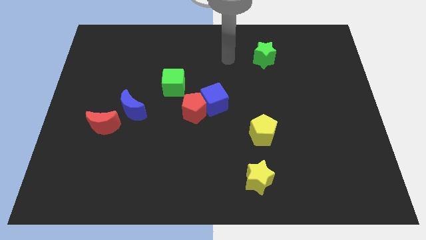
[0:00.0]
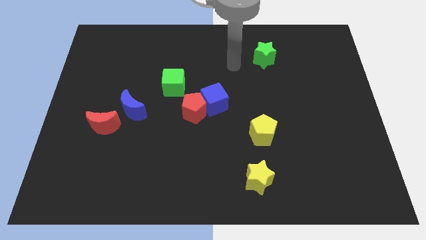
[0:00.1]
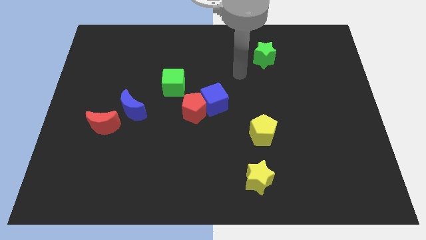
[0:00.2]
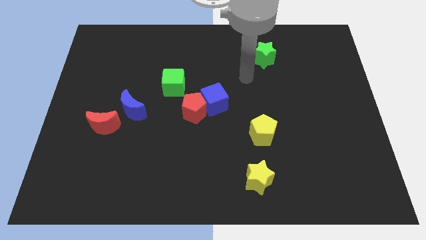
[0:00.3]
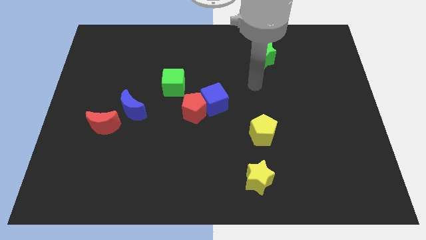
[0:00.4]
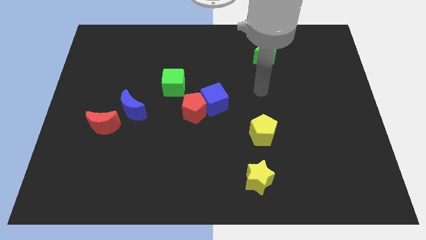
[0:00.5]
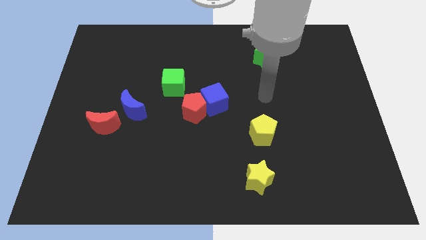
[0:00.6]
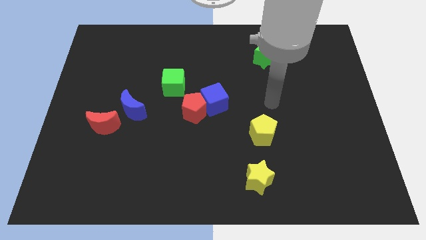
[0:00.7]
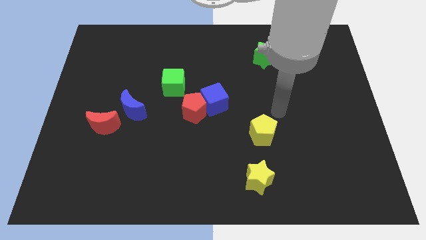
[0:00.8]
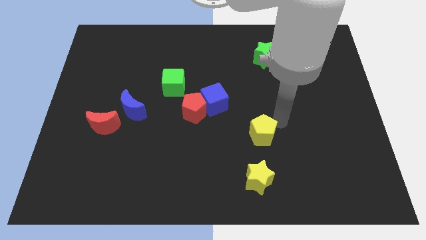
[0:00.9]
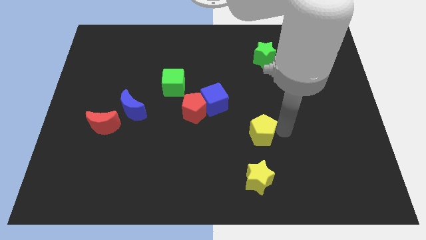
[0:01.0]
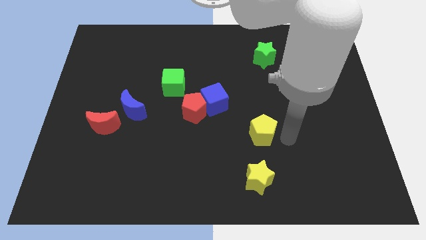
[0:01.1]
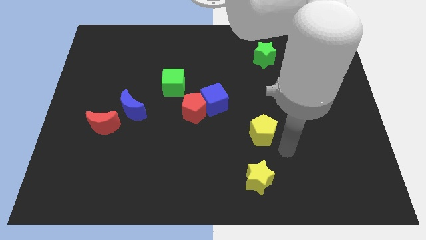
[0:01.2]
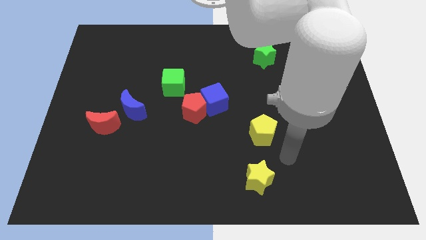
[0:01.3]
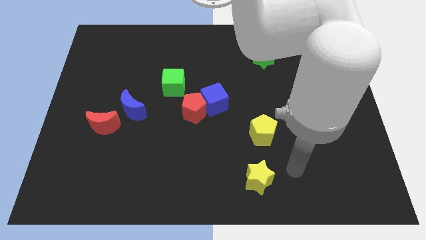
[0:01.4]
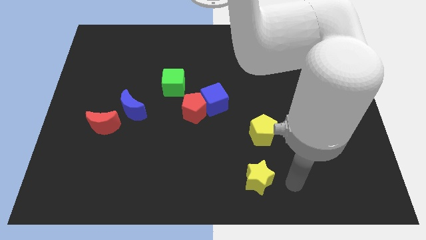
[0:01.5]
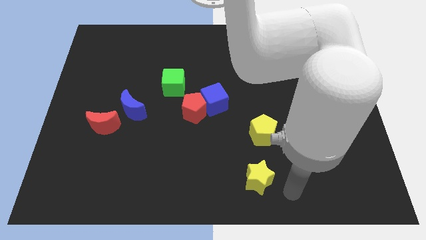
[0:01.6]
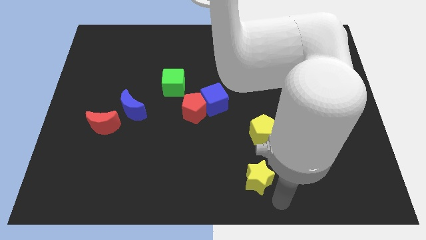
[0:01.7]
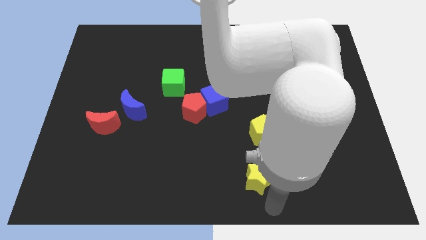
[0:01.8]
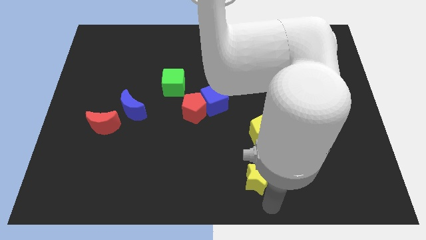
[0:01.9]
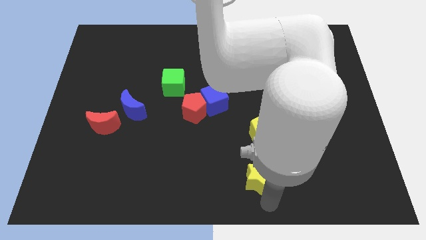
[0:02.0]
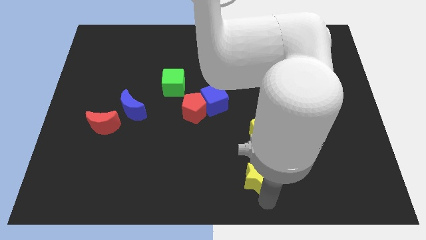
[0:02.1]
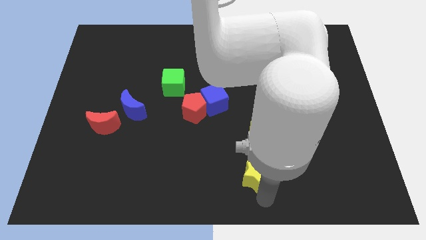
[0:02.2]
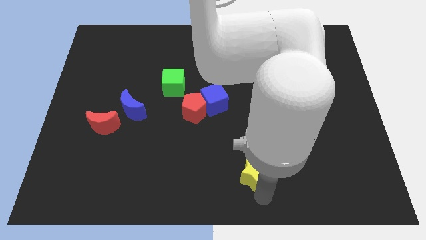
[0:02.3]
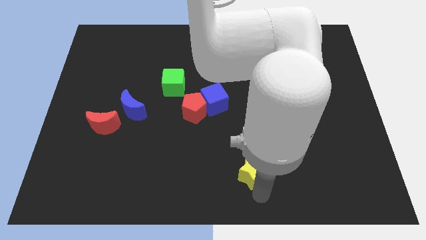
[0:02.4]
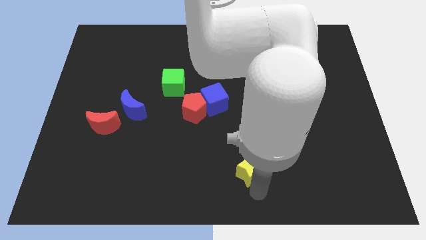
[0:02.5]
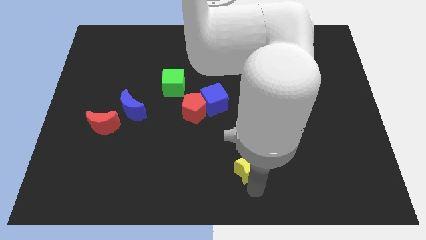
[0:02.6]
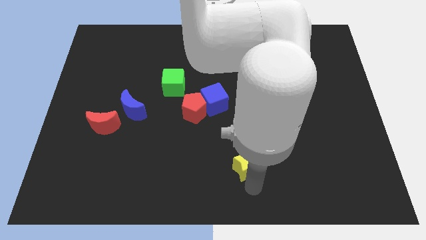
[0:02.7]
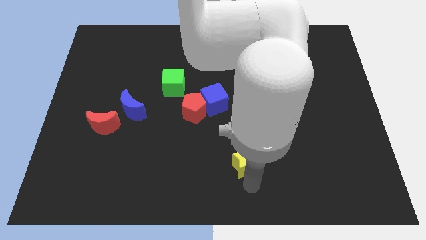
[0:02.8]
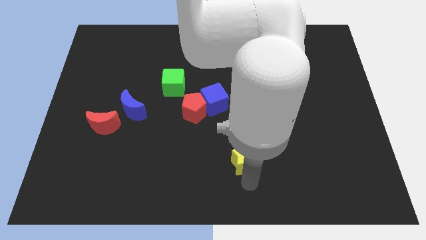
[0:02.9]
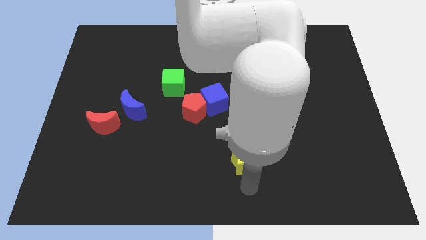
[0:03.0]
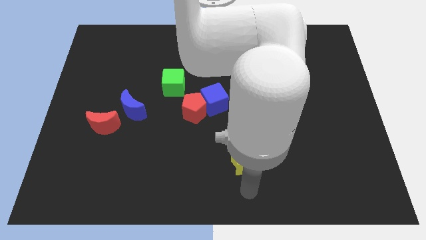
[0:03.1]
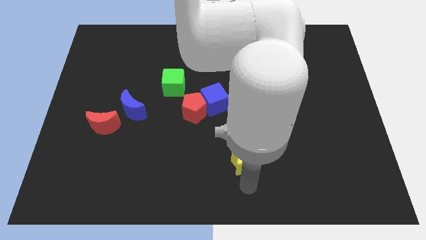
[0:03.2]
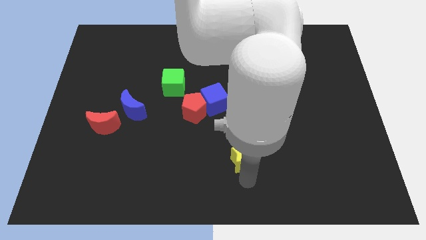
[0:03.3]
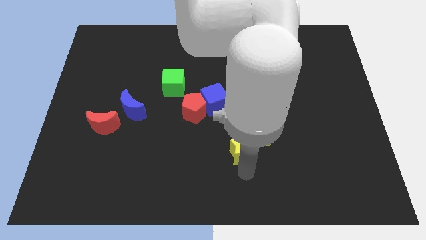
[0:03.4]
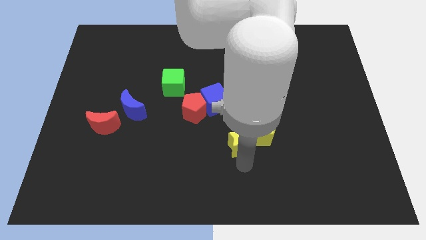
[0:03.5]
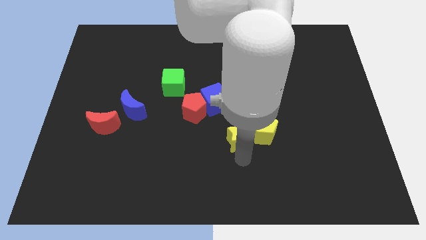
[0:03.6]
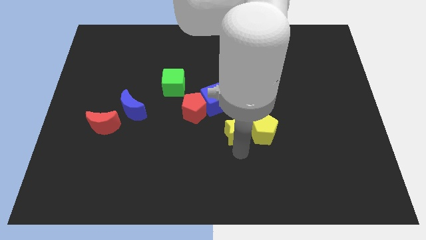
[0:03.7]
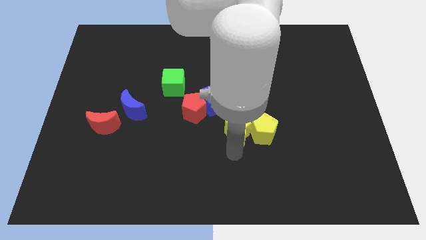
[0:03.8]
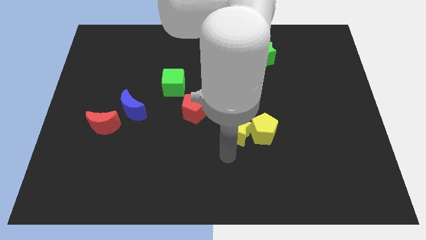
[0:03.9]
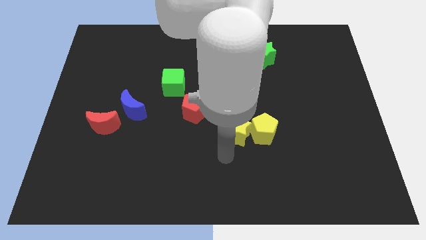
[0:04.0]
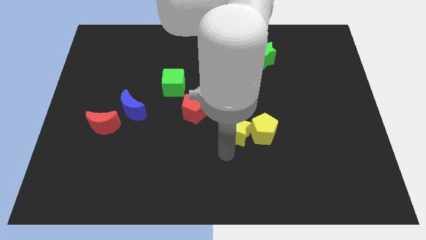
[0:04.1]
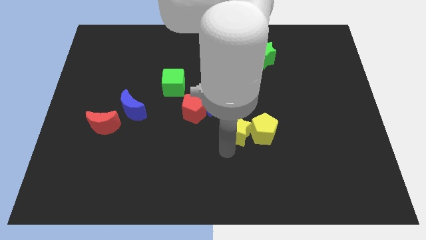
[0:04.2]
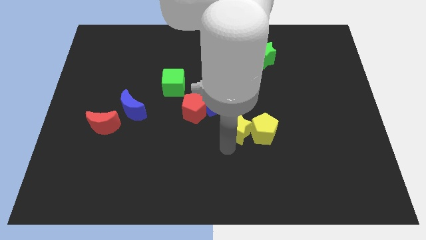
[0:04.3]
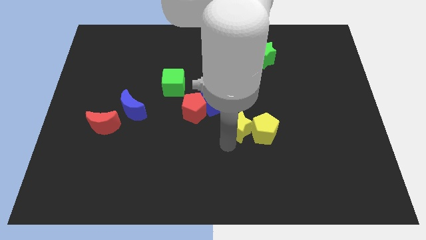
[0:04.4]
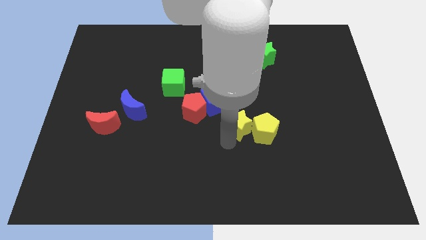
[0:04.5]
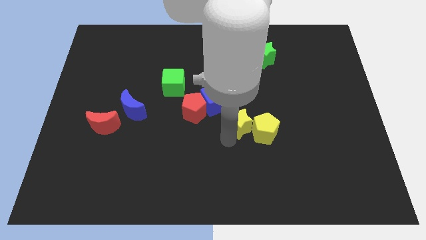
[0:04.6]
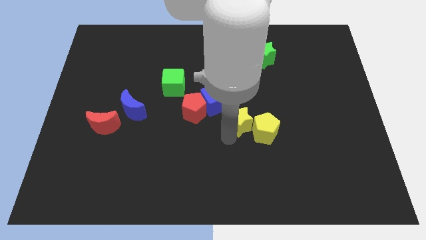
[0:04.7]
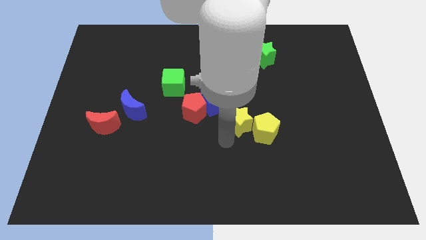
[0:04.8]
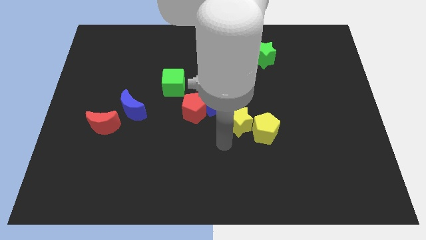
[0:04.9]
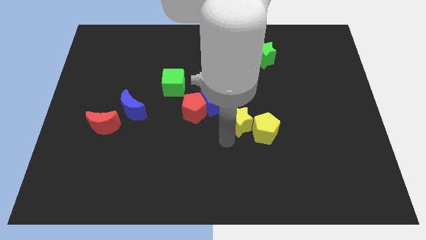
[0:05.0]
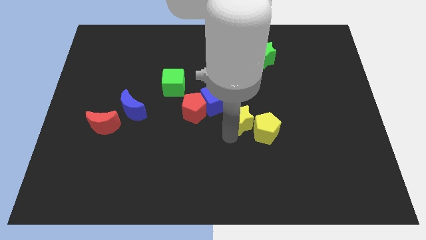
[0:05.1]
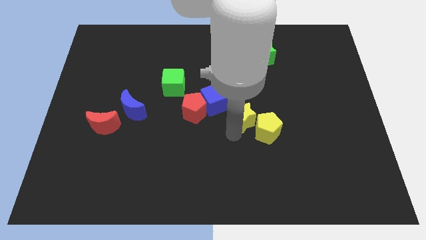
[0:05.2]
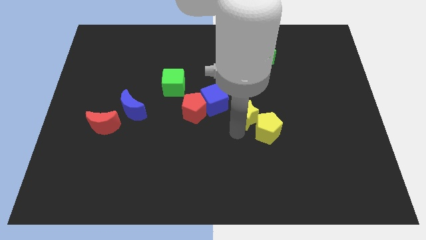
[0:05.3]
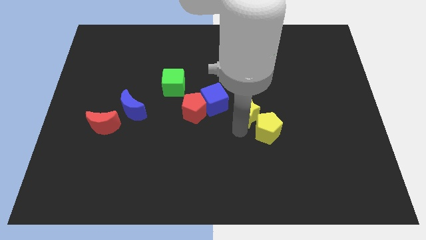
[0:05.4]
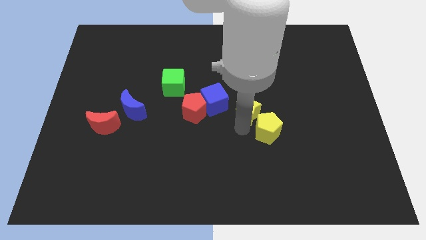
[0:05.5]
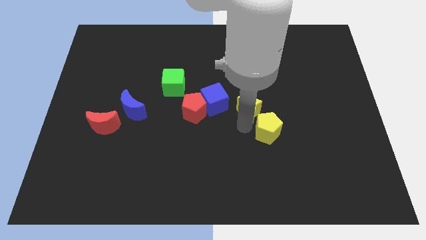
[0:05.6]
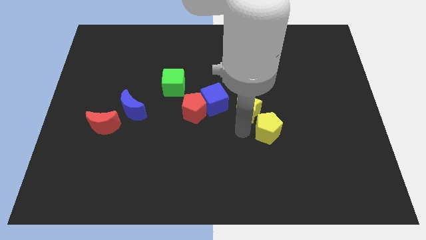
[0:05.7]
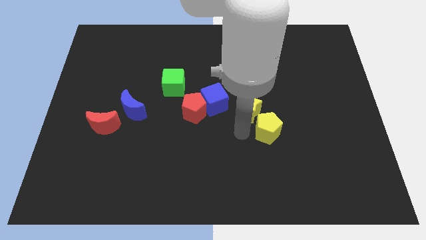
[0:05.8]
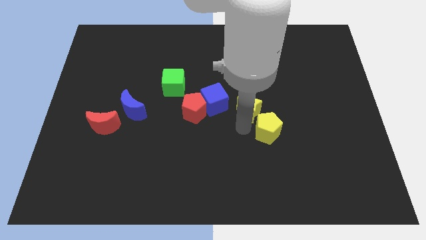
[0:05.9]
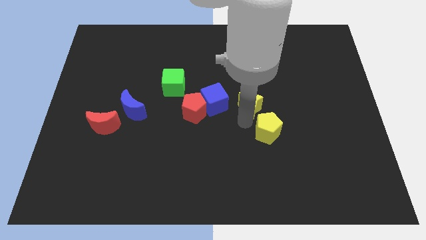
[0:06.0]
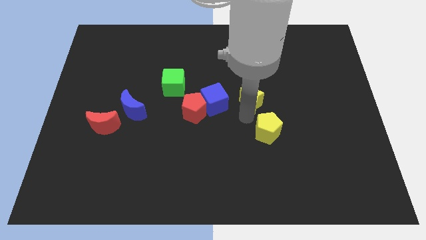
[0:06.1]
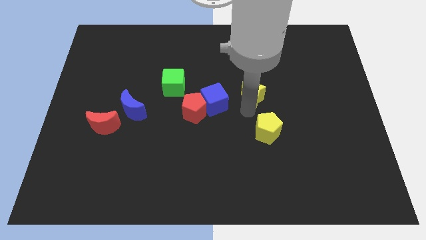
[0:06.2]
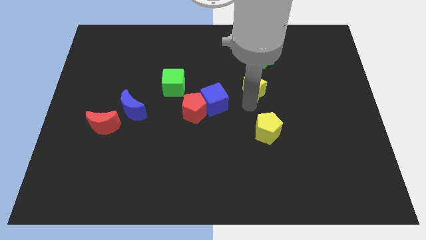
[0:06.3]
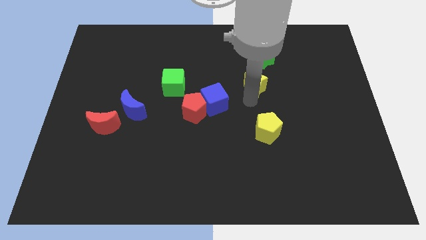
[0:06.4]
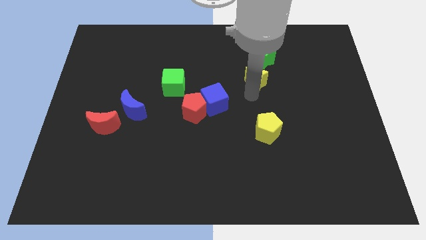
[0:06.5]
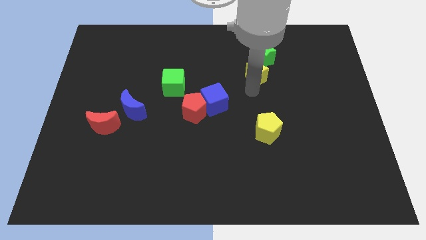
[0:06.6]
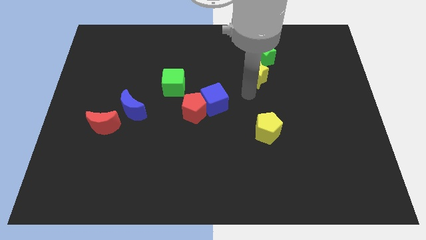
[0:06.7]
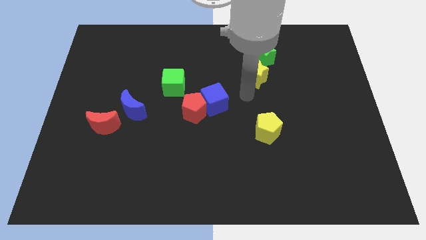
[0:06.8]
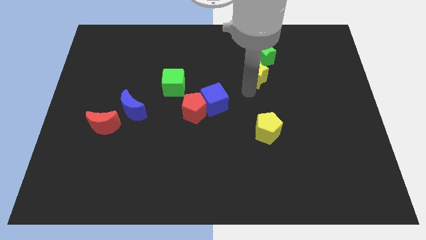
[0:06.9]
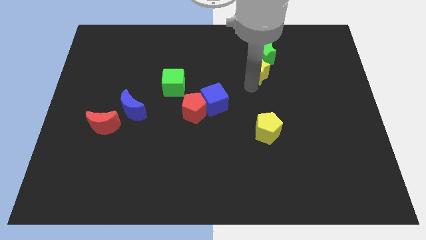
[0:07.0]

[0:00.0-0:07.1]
put the yellow star to the green star
